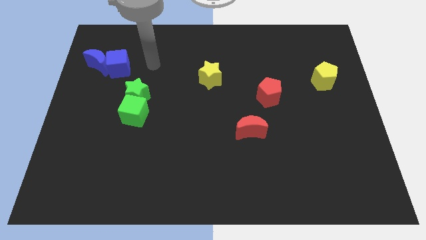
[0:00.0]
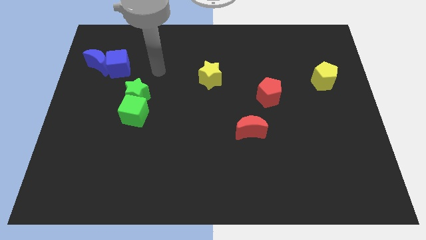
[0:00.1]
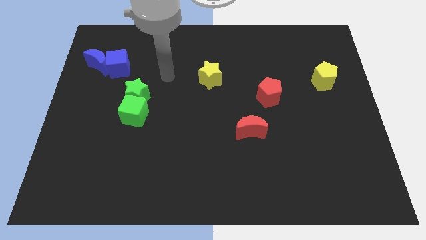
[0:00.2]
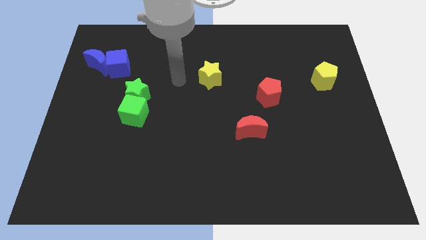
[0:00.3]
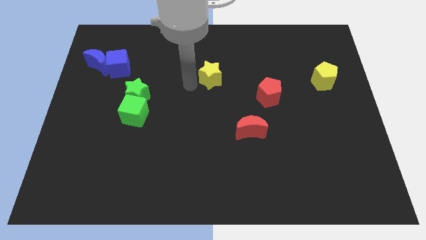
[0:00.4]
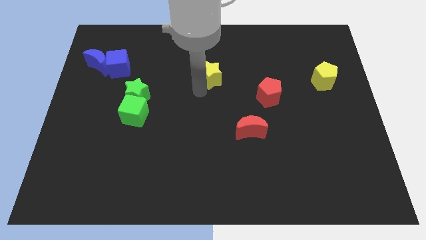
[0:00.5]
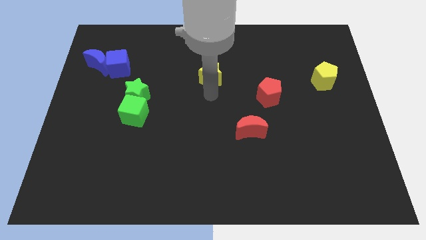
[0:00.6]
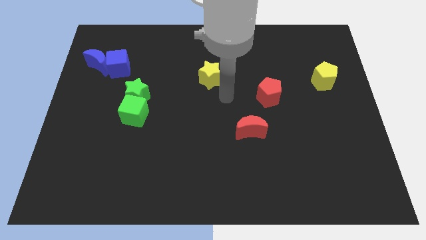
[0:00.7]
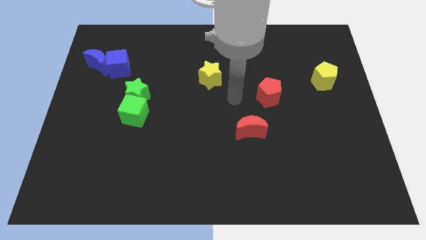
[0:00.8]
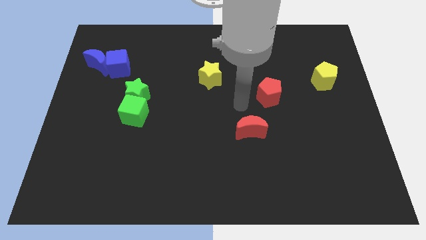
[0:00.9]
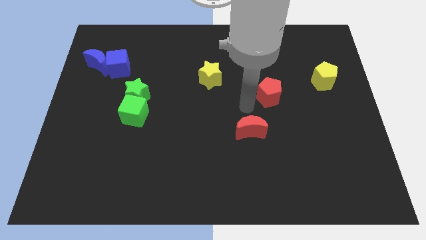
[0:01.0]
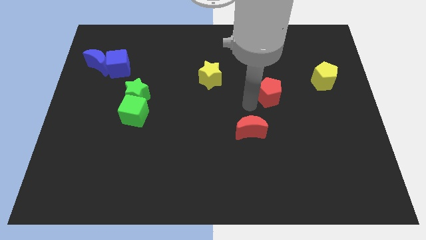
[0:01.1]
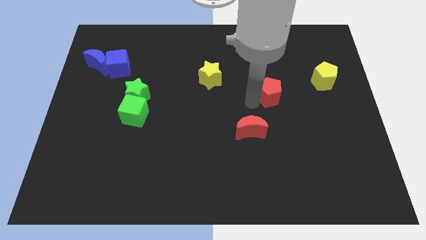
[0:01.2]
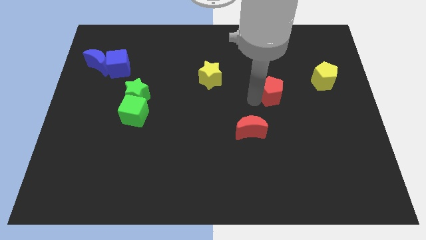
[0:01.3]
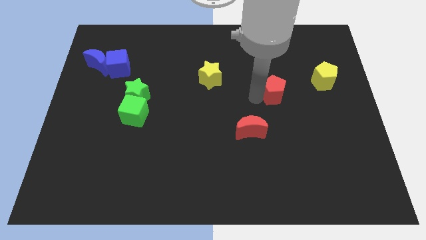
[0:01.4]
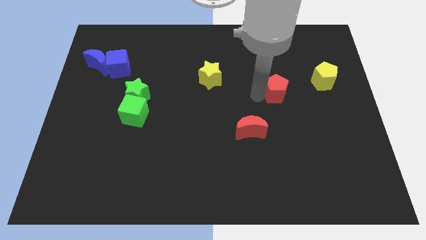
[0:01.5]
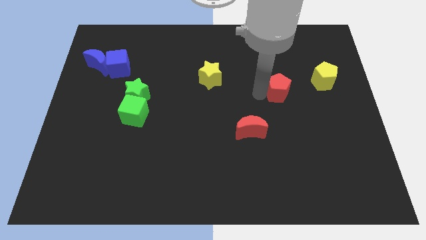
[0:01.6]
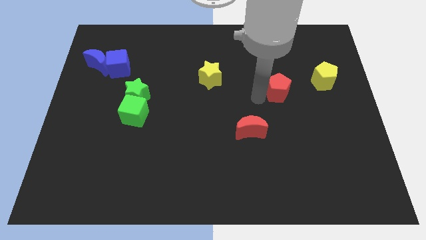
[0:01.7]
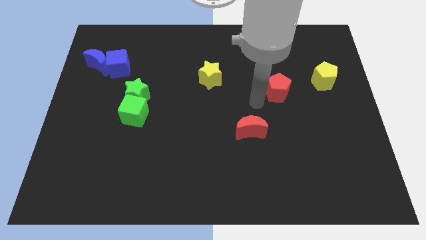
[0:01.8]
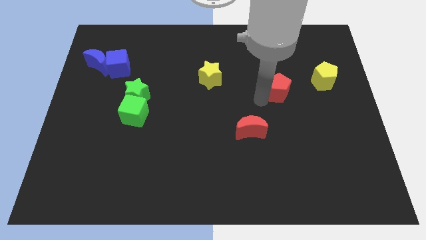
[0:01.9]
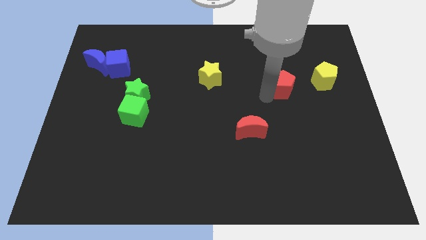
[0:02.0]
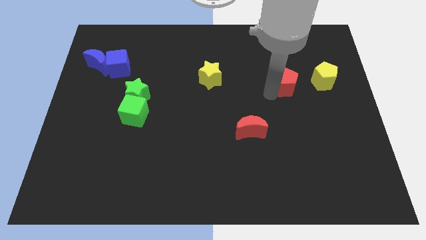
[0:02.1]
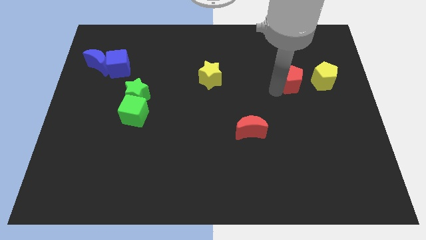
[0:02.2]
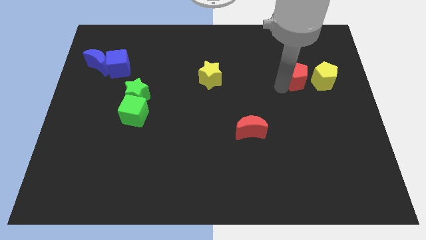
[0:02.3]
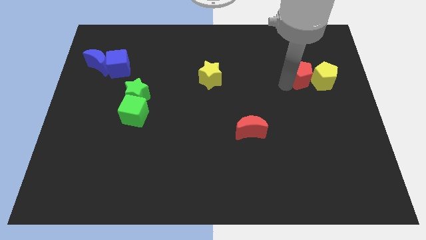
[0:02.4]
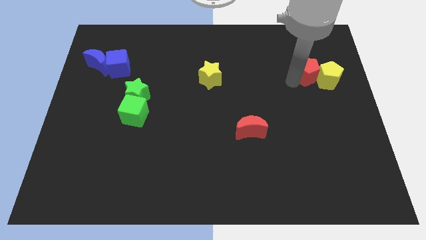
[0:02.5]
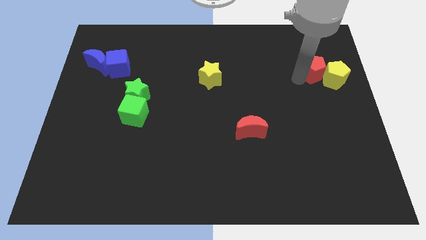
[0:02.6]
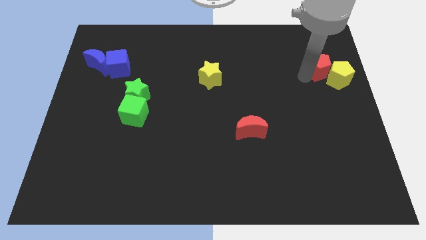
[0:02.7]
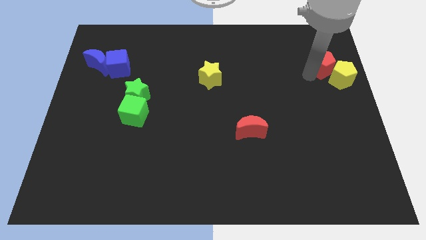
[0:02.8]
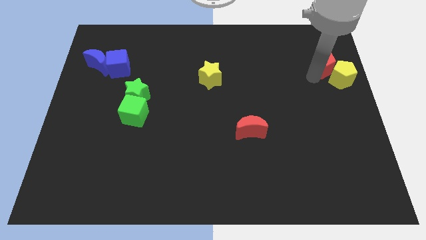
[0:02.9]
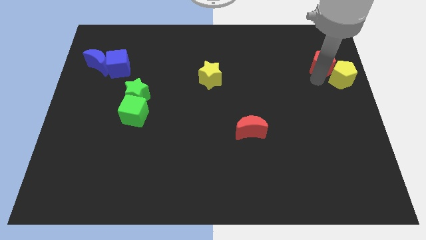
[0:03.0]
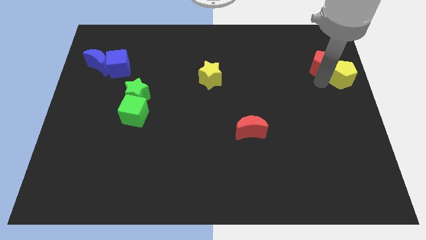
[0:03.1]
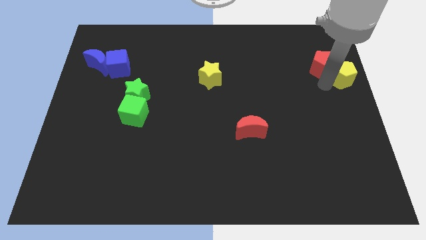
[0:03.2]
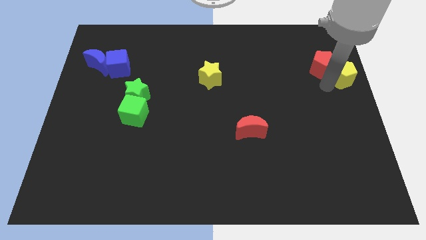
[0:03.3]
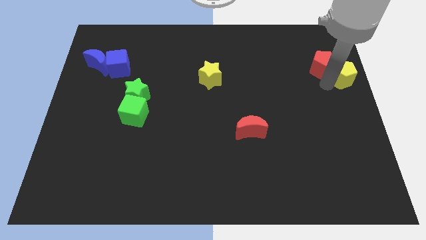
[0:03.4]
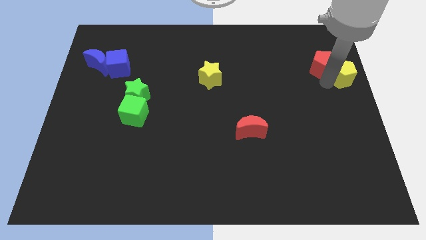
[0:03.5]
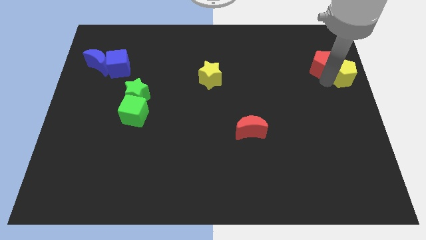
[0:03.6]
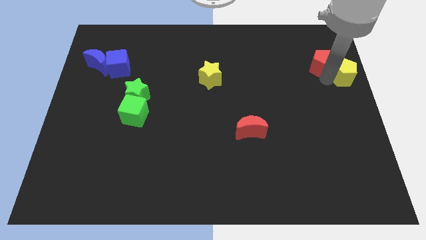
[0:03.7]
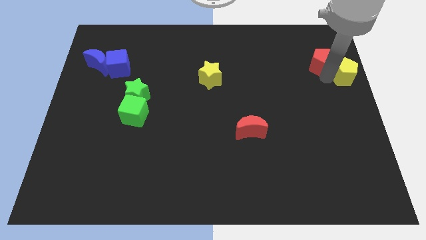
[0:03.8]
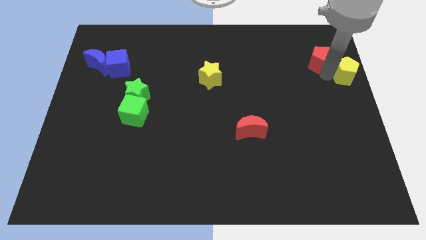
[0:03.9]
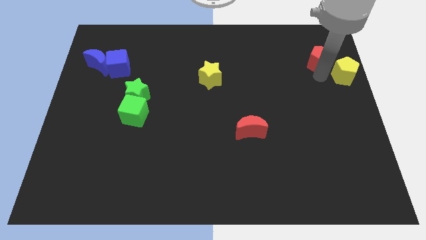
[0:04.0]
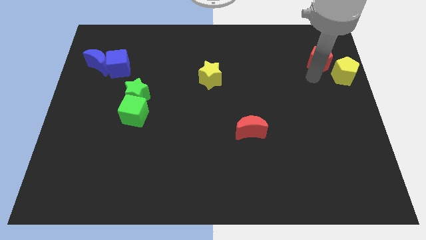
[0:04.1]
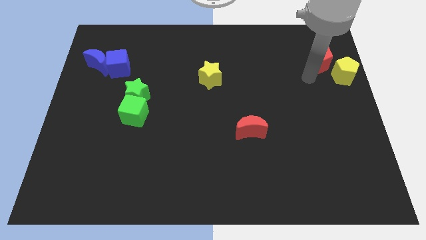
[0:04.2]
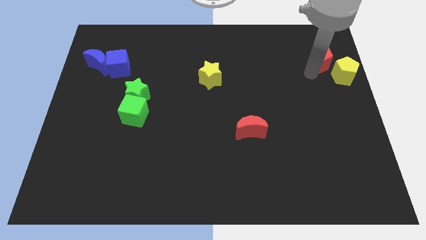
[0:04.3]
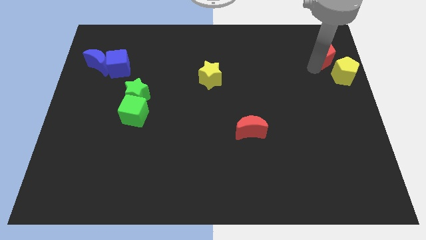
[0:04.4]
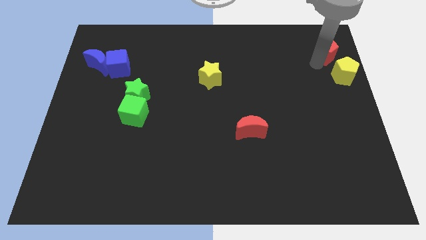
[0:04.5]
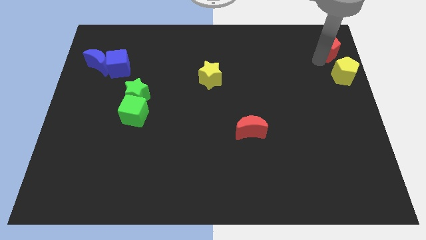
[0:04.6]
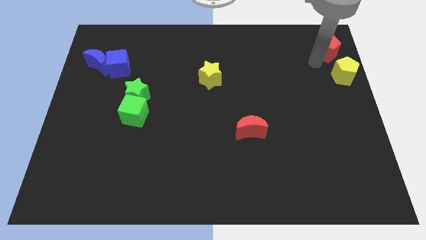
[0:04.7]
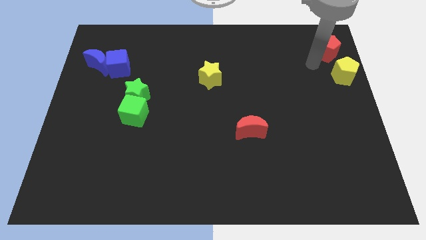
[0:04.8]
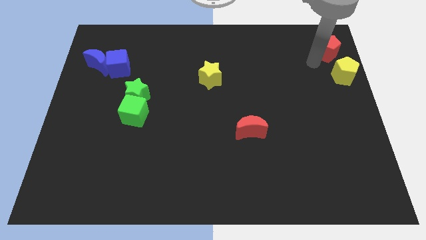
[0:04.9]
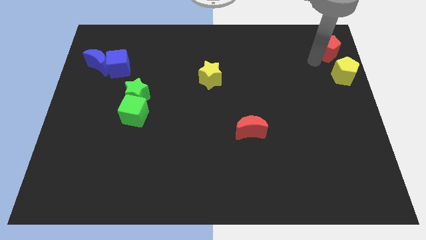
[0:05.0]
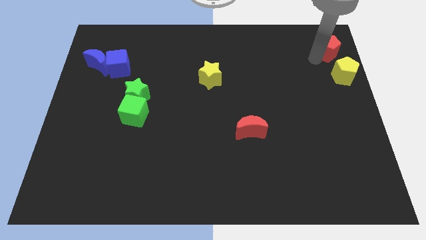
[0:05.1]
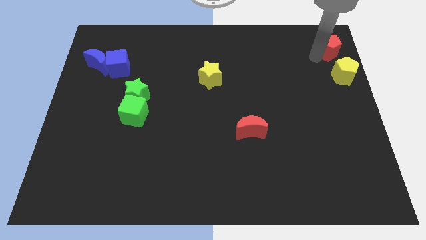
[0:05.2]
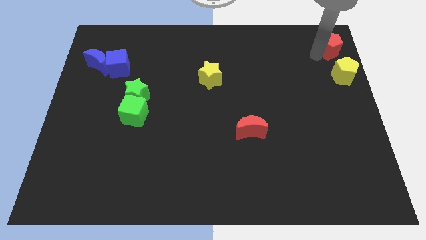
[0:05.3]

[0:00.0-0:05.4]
put the red pentagon to the top right corner
